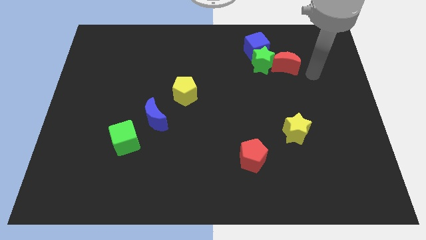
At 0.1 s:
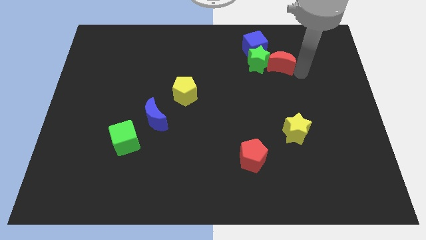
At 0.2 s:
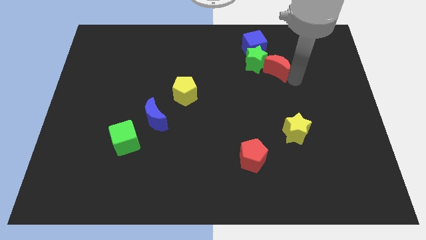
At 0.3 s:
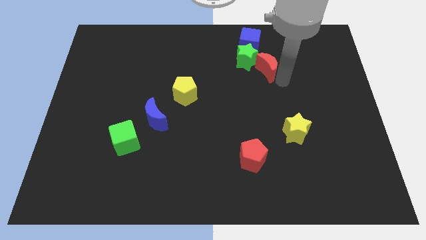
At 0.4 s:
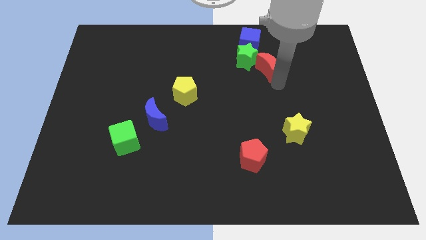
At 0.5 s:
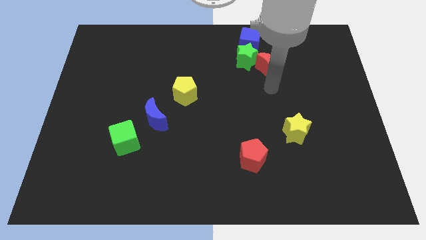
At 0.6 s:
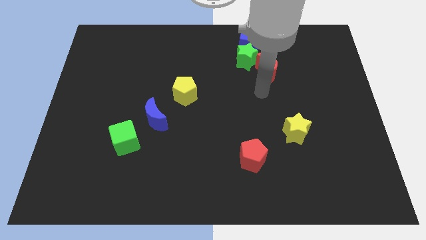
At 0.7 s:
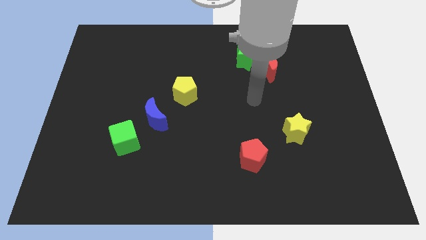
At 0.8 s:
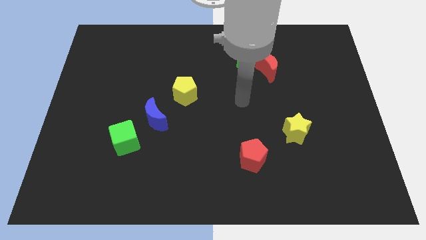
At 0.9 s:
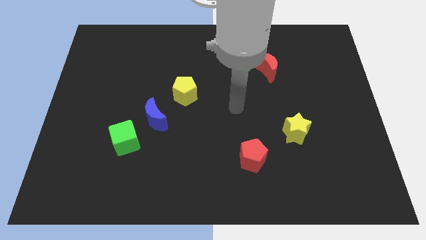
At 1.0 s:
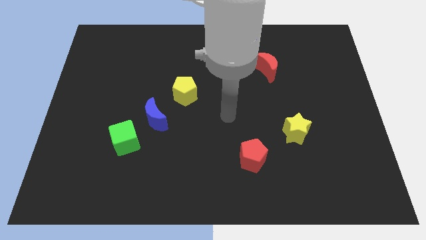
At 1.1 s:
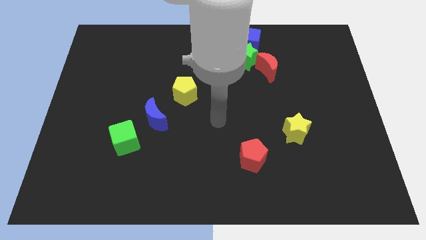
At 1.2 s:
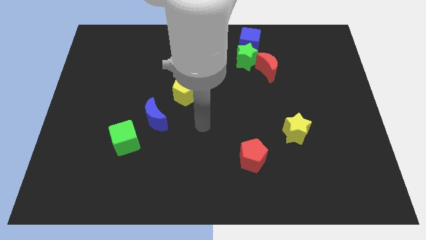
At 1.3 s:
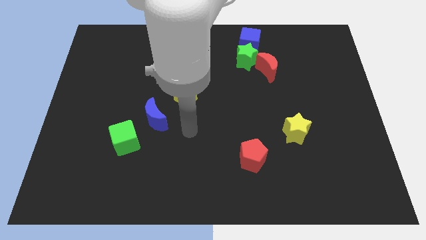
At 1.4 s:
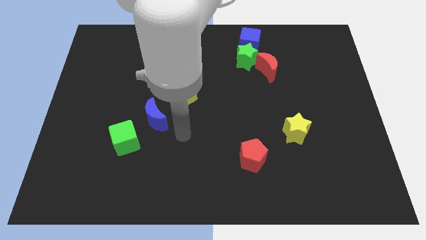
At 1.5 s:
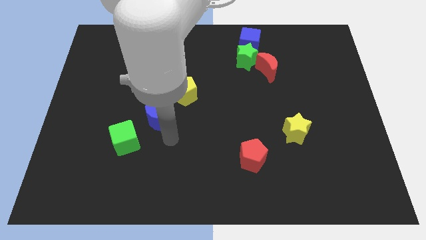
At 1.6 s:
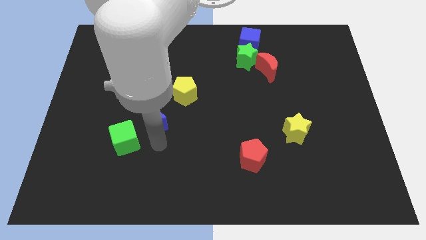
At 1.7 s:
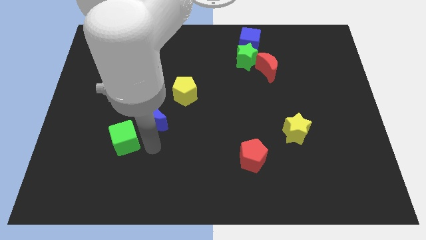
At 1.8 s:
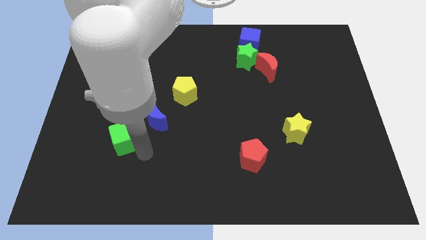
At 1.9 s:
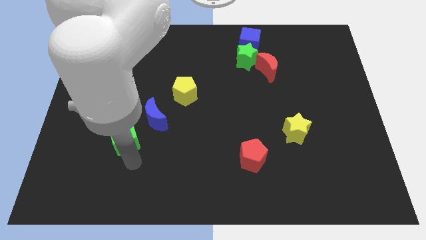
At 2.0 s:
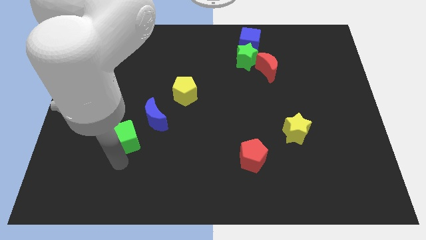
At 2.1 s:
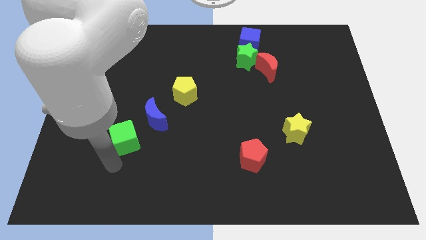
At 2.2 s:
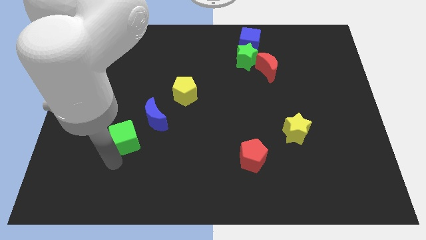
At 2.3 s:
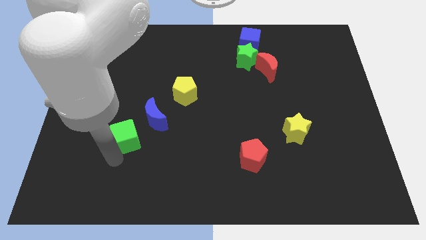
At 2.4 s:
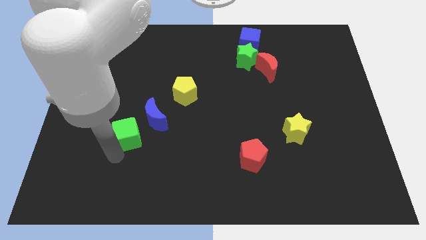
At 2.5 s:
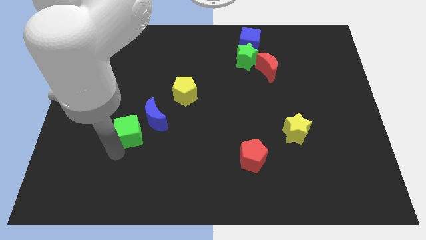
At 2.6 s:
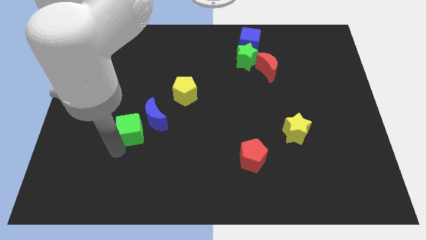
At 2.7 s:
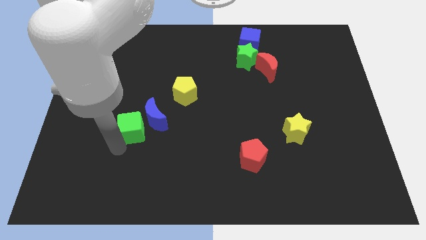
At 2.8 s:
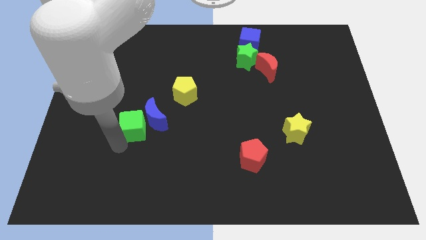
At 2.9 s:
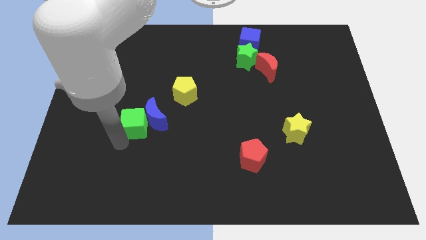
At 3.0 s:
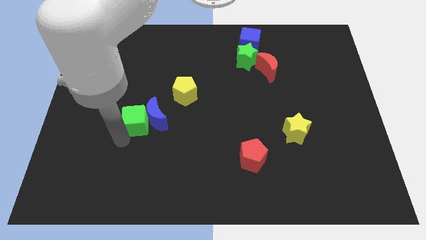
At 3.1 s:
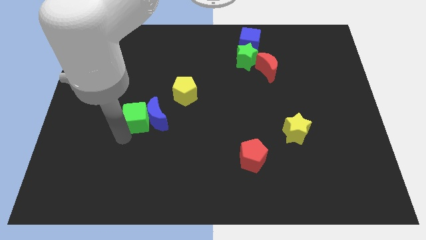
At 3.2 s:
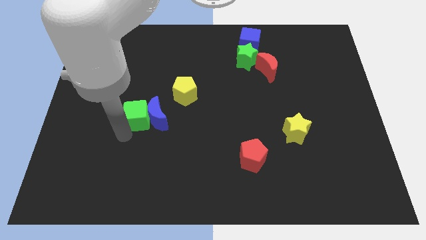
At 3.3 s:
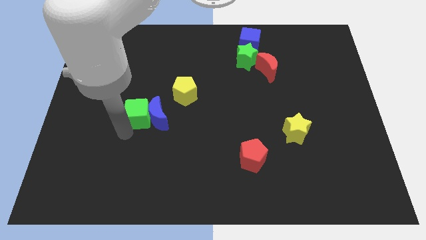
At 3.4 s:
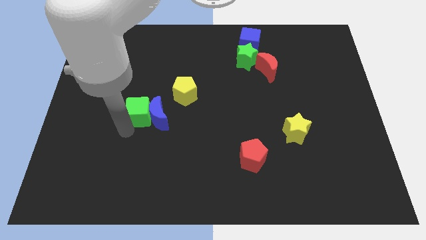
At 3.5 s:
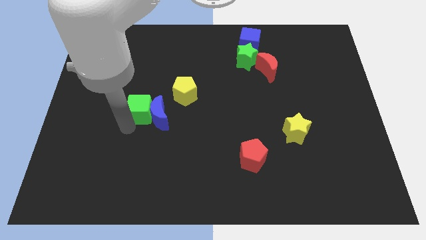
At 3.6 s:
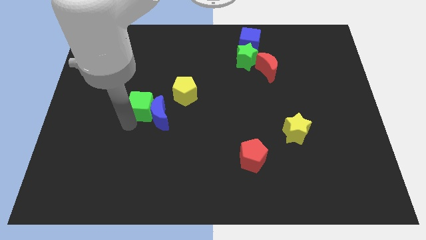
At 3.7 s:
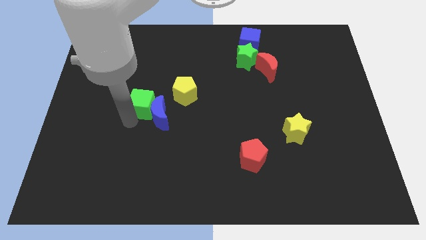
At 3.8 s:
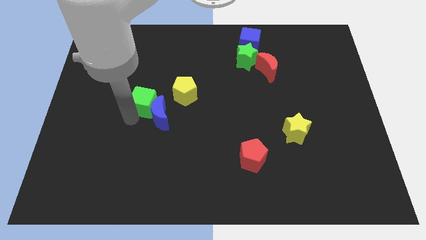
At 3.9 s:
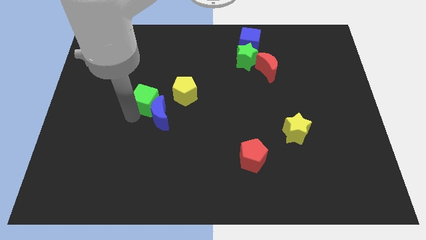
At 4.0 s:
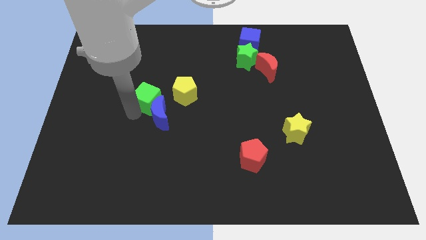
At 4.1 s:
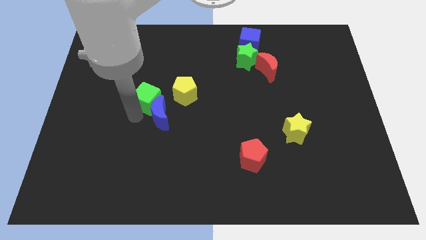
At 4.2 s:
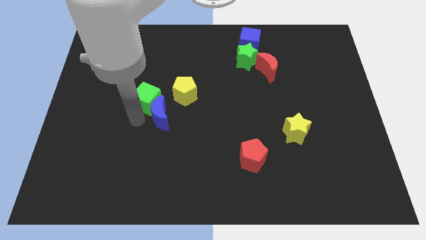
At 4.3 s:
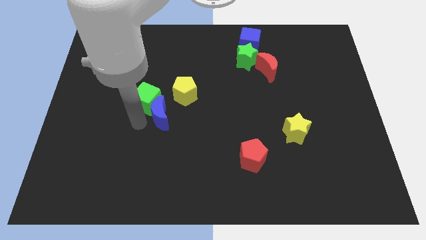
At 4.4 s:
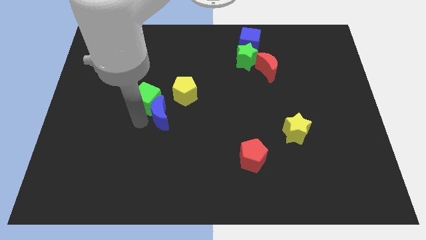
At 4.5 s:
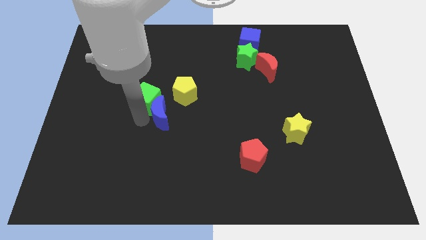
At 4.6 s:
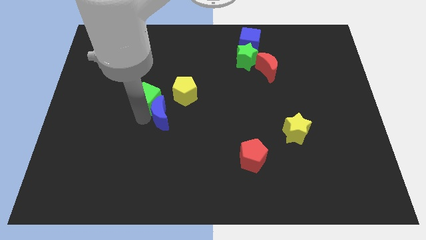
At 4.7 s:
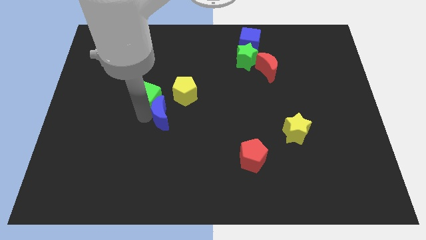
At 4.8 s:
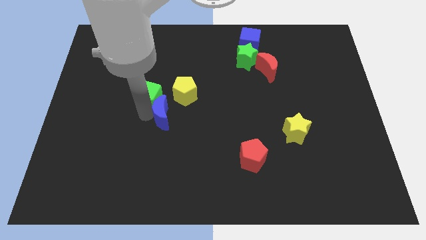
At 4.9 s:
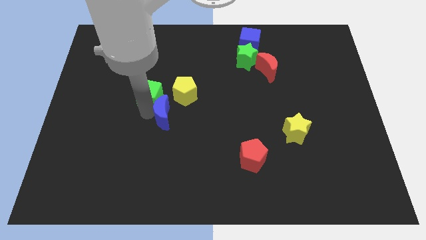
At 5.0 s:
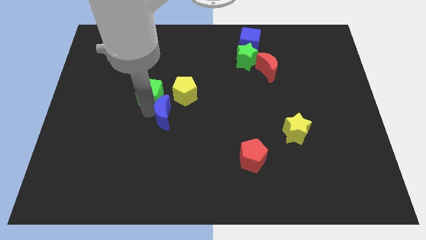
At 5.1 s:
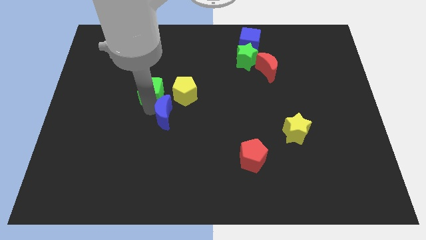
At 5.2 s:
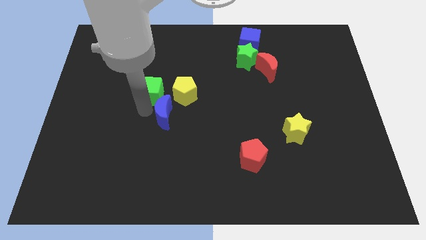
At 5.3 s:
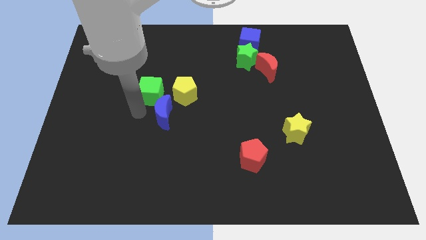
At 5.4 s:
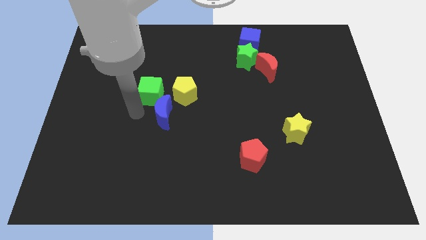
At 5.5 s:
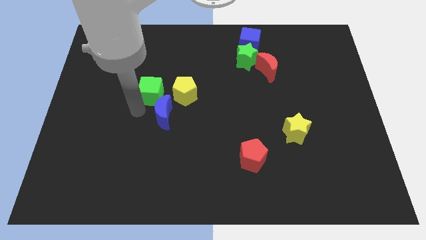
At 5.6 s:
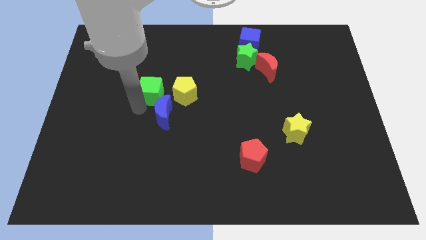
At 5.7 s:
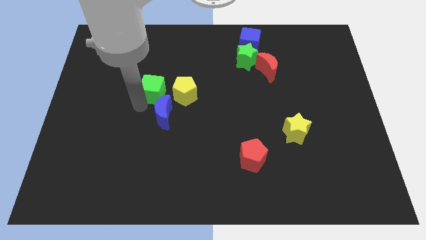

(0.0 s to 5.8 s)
slide the green cube to the top left of the yellow pentagon

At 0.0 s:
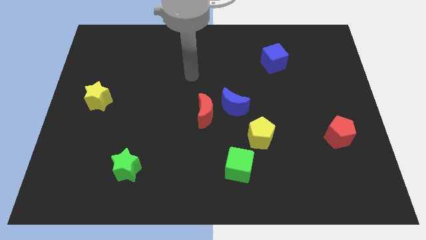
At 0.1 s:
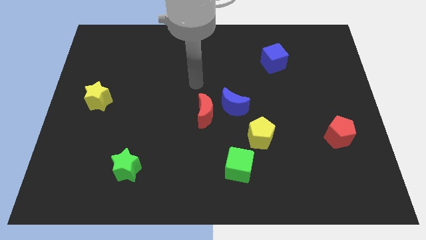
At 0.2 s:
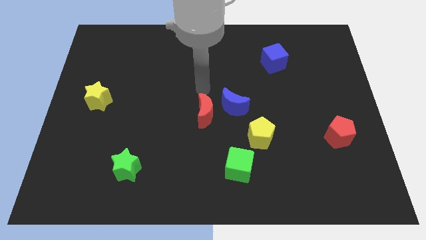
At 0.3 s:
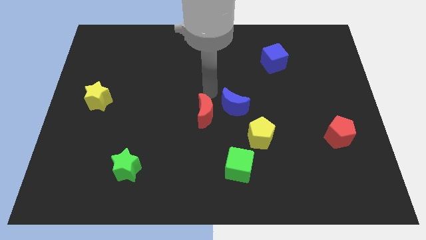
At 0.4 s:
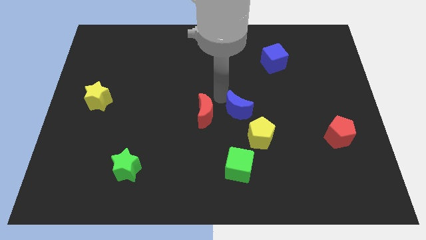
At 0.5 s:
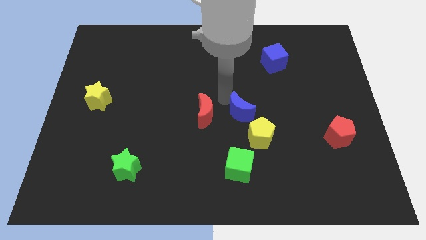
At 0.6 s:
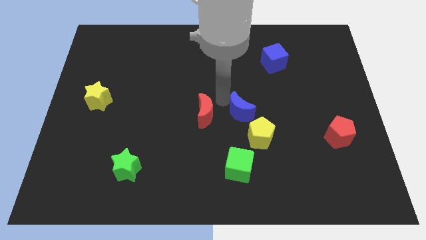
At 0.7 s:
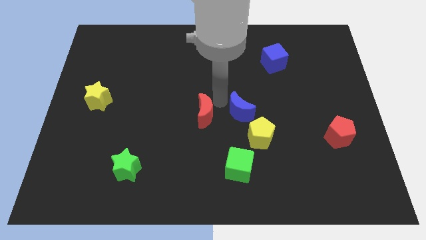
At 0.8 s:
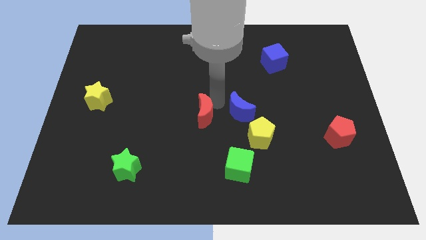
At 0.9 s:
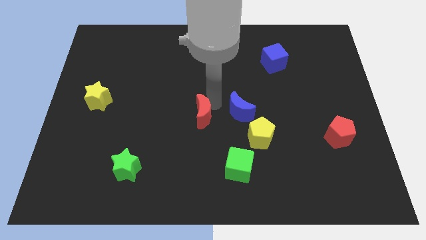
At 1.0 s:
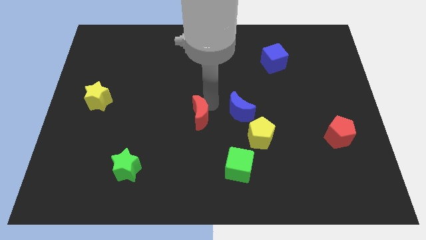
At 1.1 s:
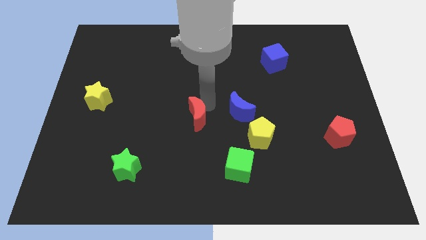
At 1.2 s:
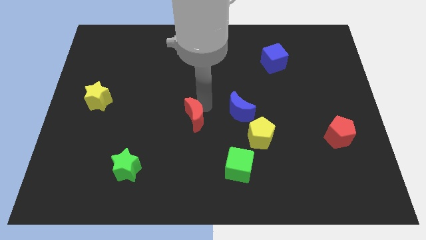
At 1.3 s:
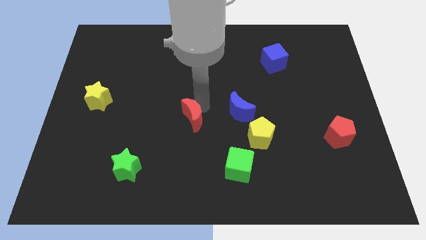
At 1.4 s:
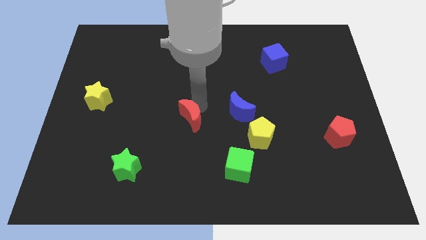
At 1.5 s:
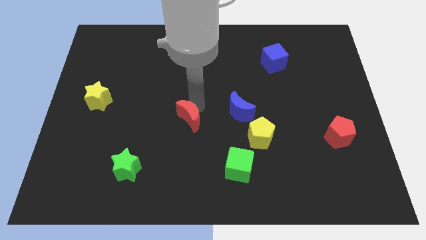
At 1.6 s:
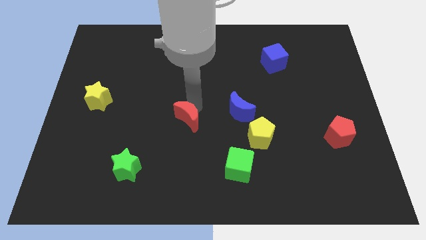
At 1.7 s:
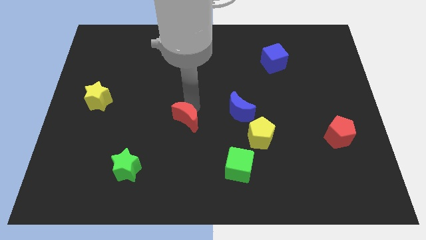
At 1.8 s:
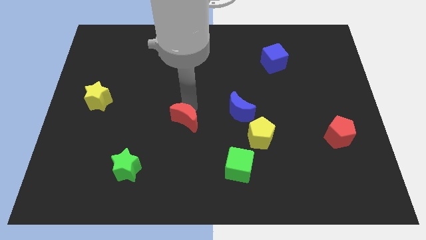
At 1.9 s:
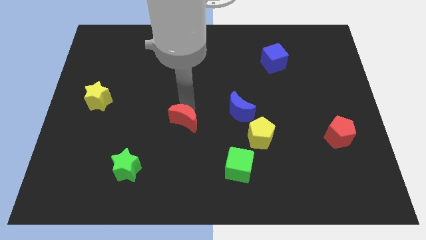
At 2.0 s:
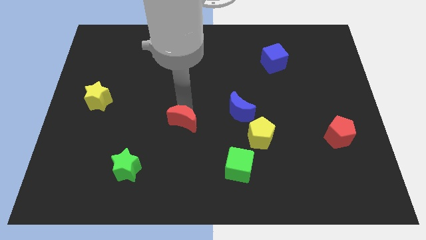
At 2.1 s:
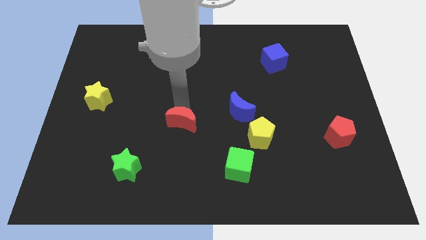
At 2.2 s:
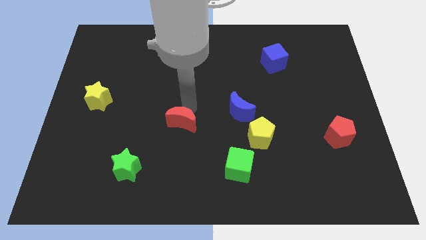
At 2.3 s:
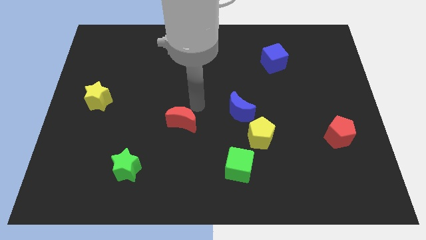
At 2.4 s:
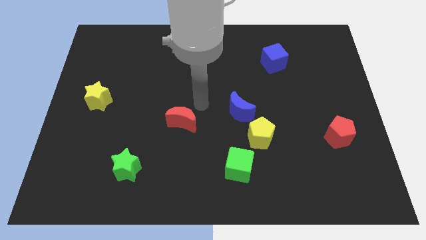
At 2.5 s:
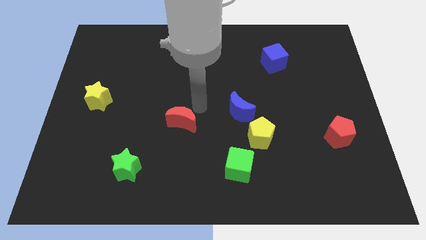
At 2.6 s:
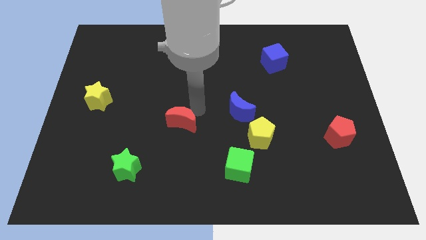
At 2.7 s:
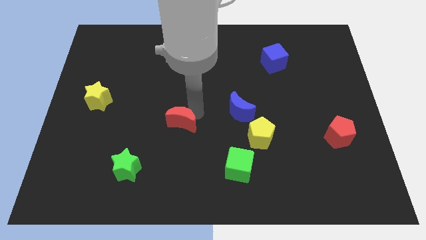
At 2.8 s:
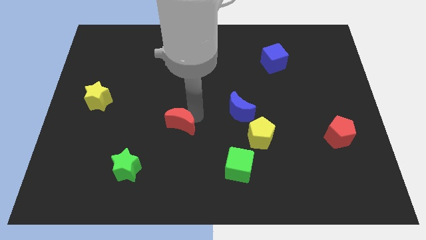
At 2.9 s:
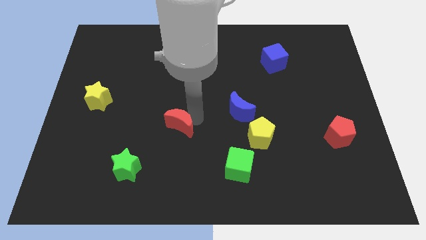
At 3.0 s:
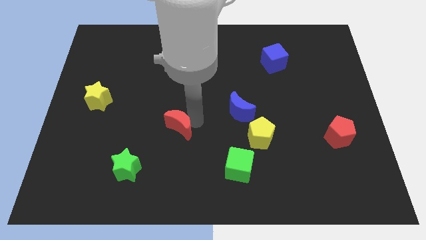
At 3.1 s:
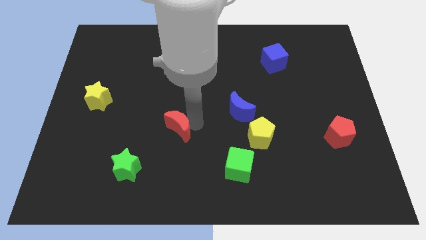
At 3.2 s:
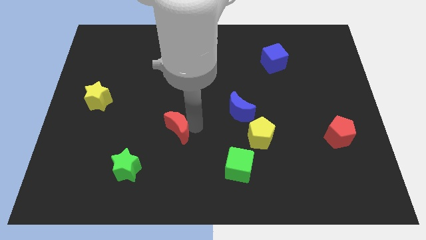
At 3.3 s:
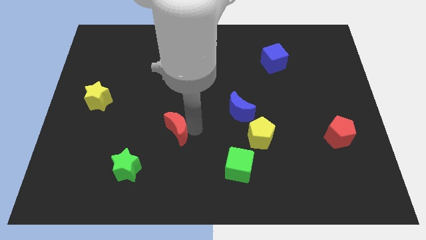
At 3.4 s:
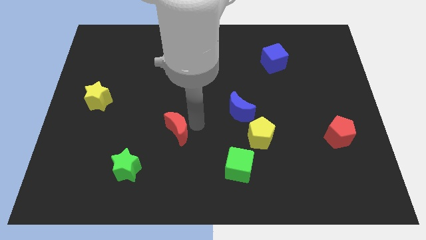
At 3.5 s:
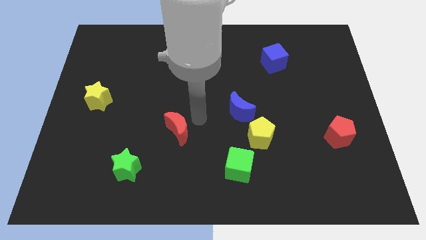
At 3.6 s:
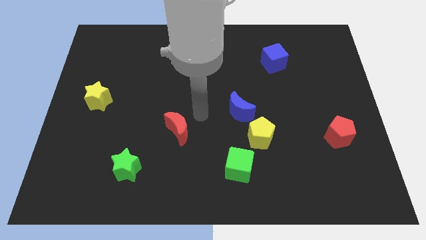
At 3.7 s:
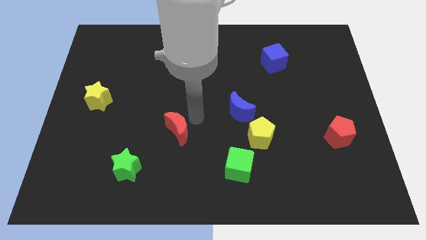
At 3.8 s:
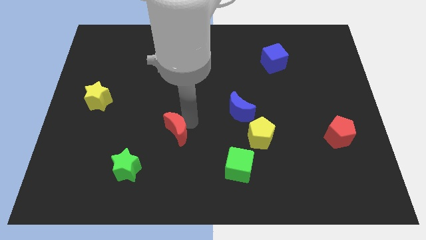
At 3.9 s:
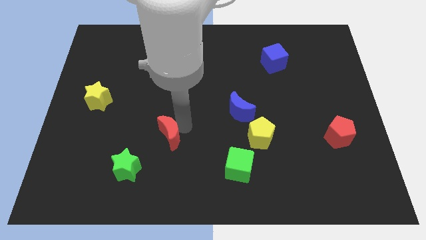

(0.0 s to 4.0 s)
put the red moon diagonally up and to the right of the green star
